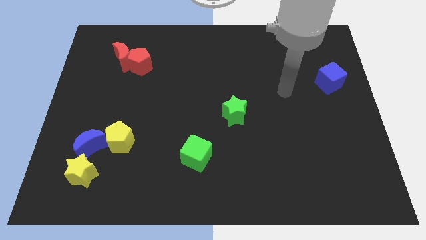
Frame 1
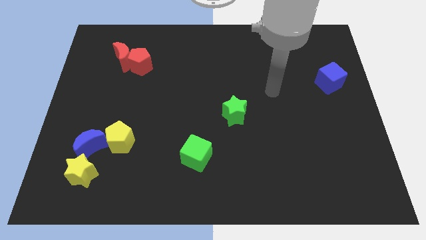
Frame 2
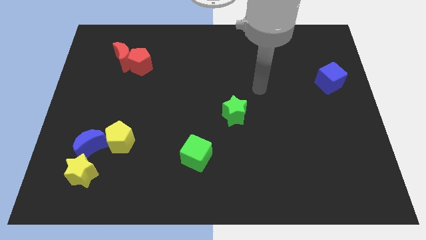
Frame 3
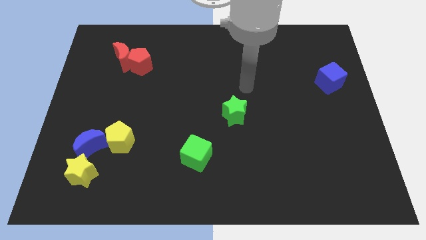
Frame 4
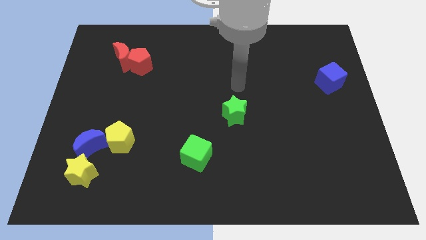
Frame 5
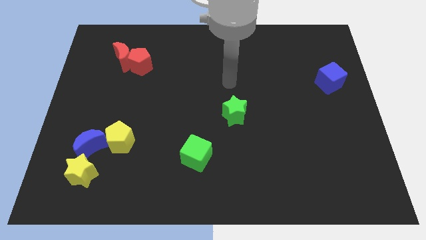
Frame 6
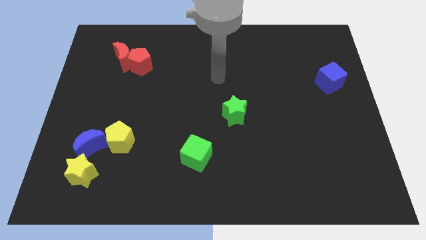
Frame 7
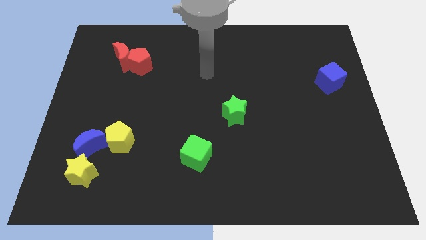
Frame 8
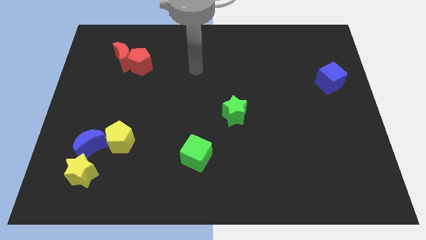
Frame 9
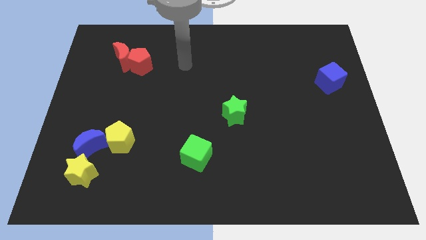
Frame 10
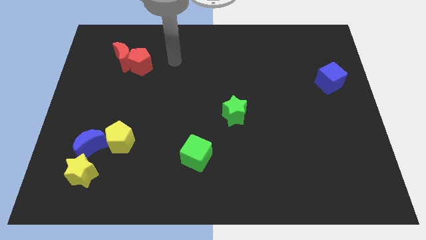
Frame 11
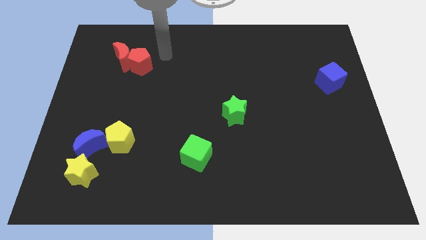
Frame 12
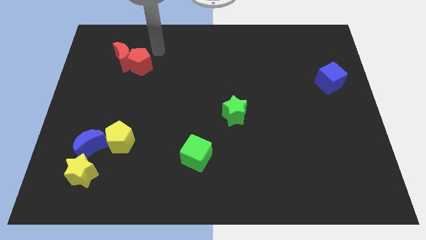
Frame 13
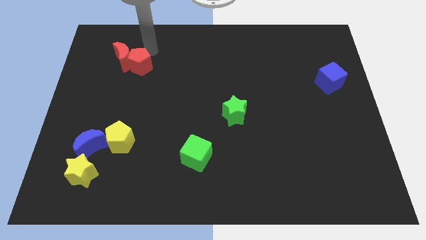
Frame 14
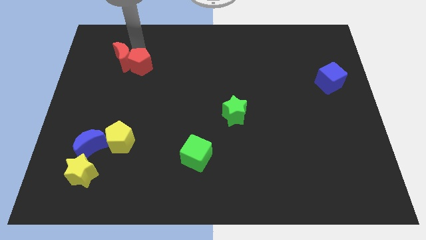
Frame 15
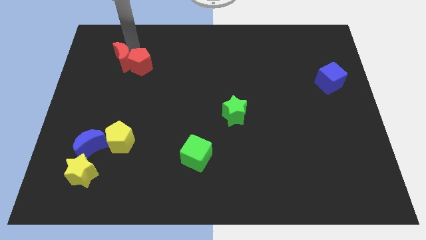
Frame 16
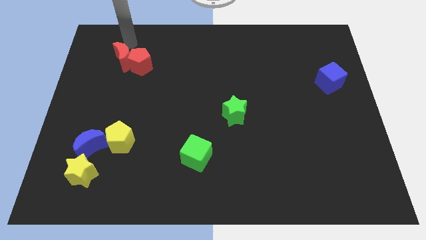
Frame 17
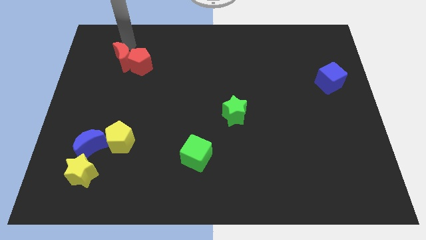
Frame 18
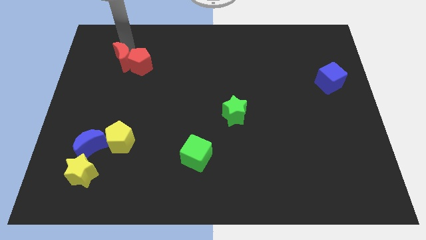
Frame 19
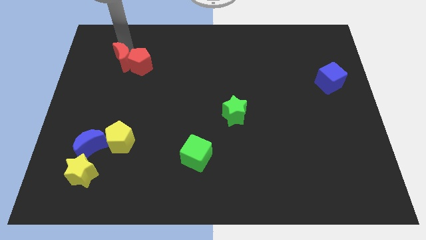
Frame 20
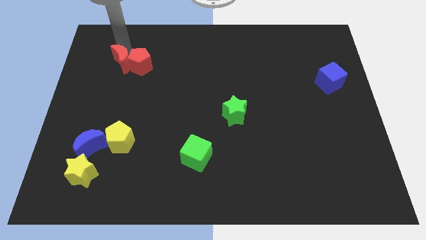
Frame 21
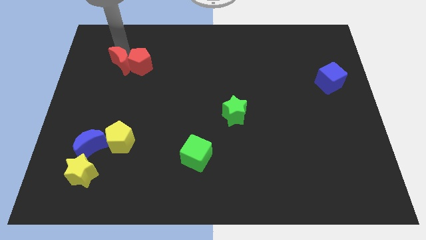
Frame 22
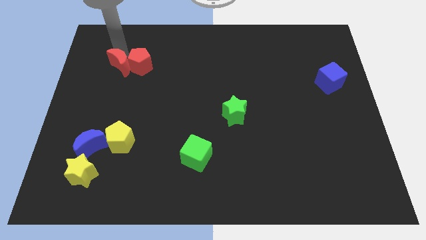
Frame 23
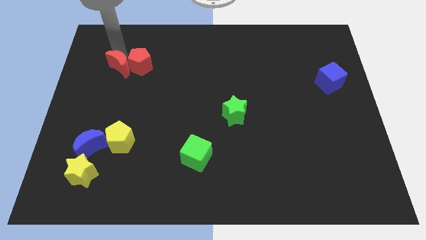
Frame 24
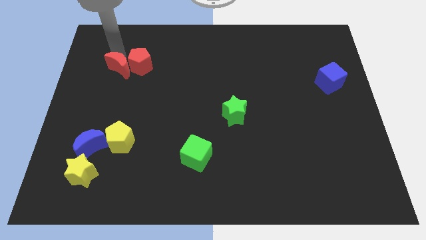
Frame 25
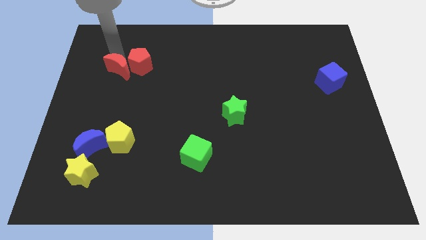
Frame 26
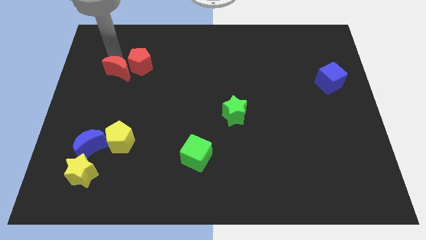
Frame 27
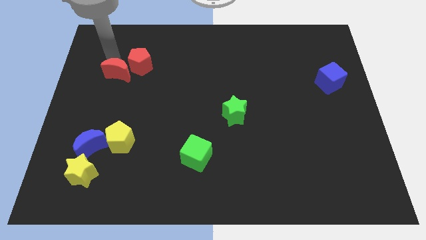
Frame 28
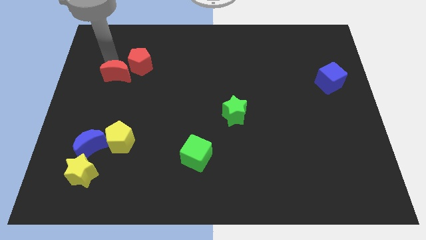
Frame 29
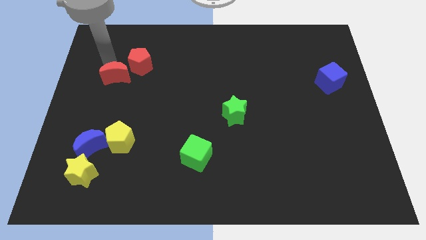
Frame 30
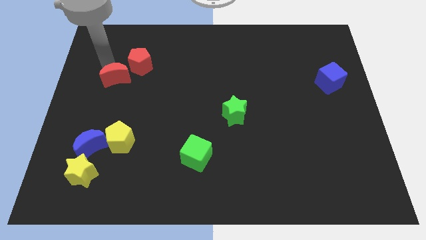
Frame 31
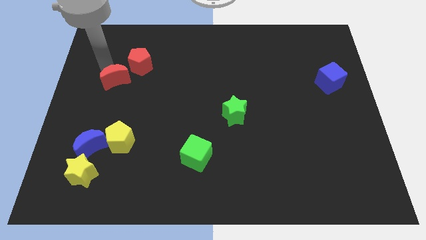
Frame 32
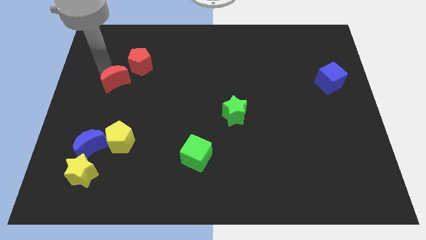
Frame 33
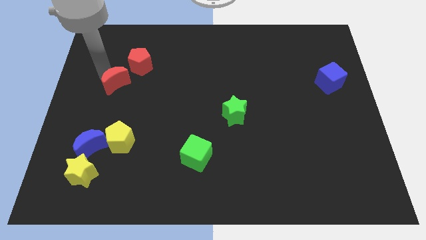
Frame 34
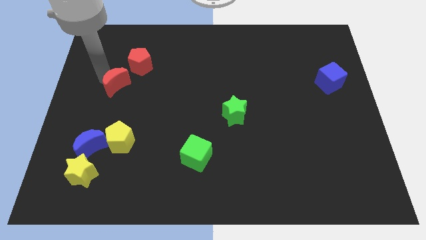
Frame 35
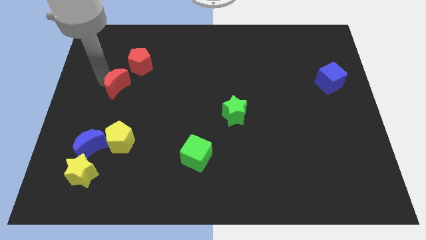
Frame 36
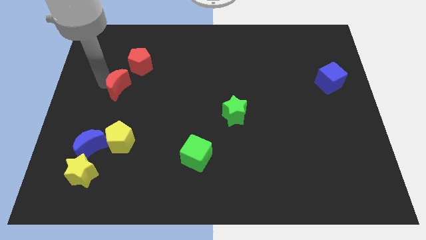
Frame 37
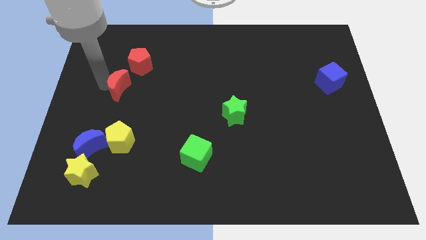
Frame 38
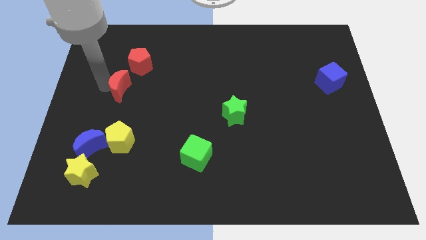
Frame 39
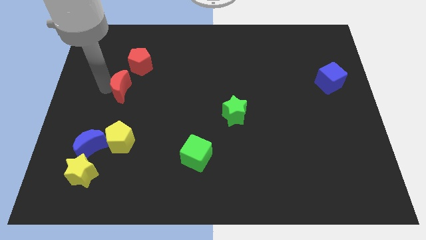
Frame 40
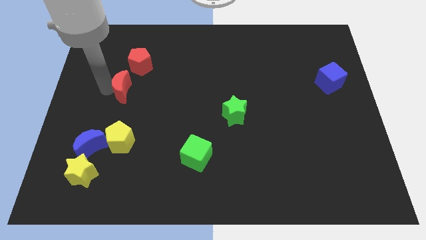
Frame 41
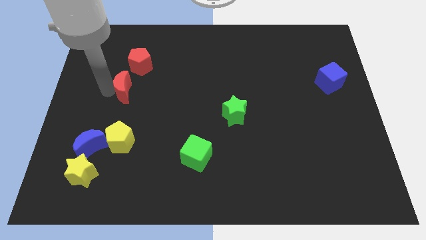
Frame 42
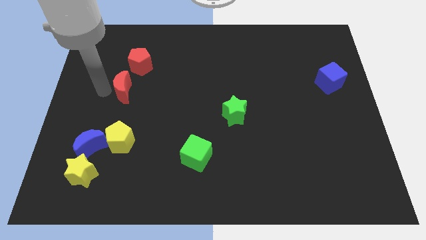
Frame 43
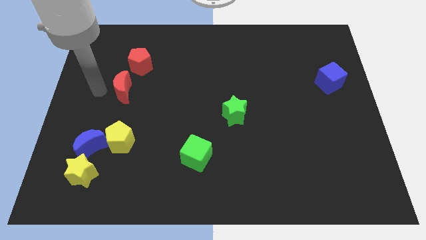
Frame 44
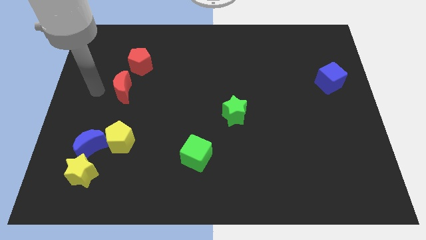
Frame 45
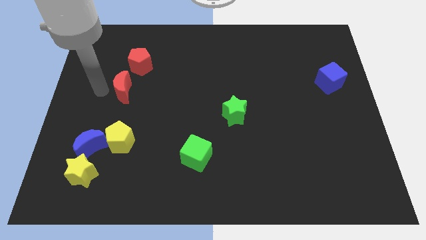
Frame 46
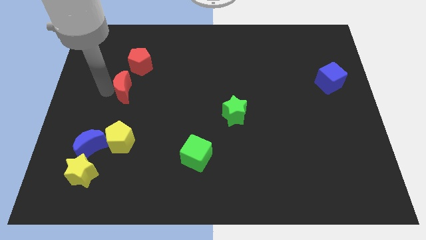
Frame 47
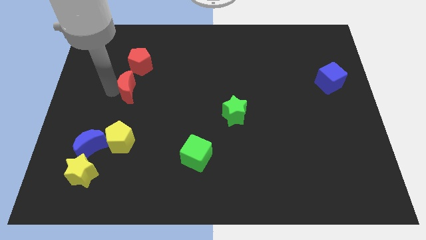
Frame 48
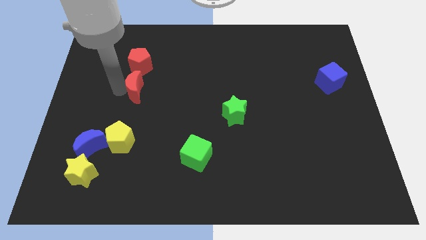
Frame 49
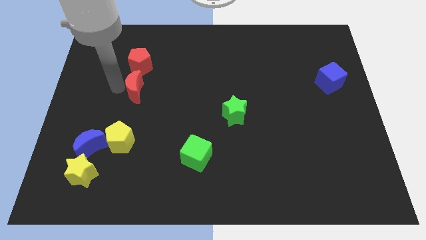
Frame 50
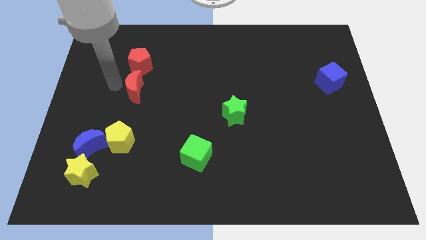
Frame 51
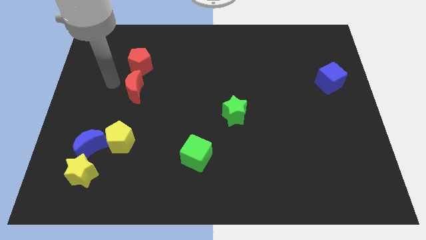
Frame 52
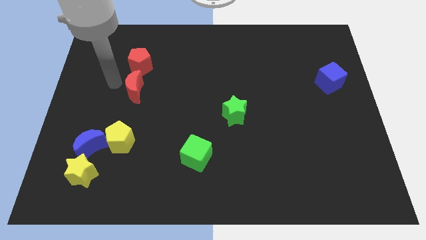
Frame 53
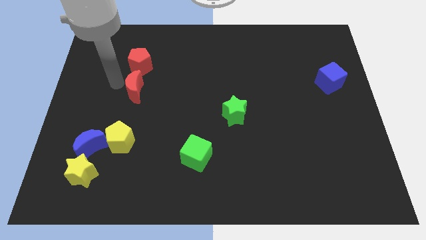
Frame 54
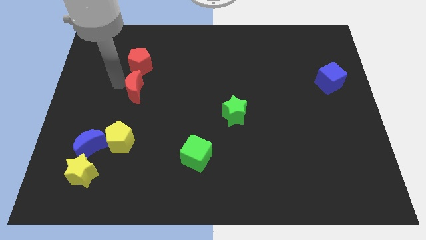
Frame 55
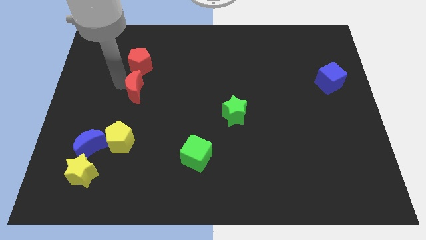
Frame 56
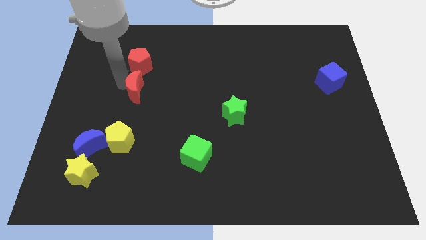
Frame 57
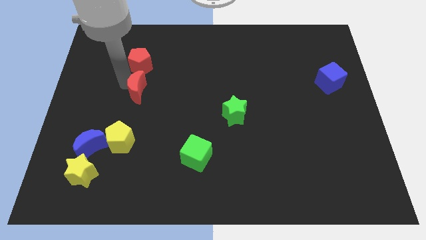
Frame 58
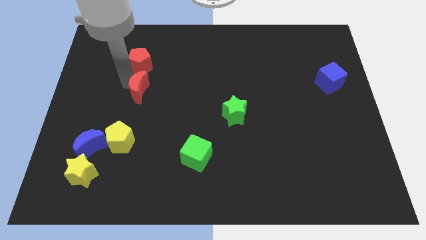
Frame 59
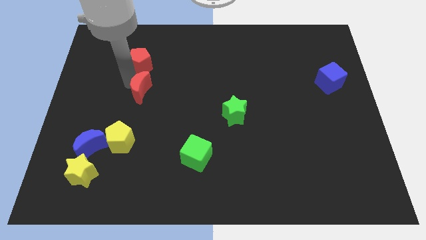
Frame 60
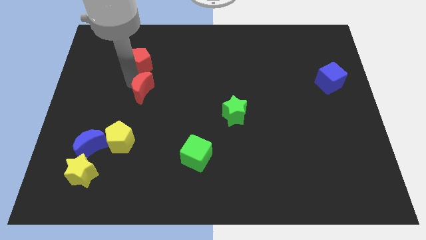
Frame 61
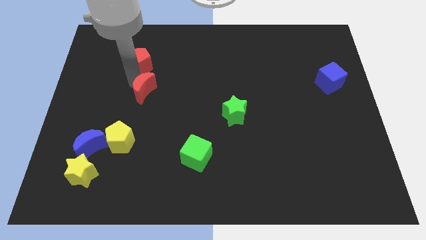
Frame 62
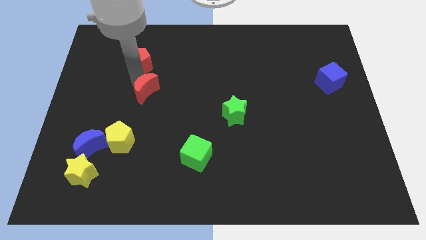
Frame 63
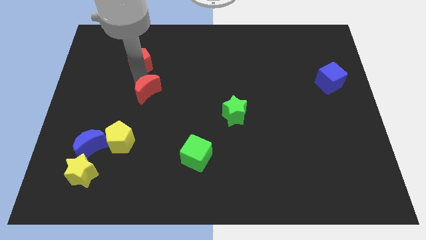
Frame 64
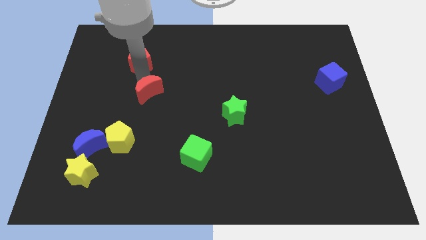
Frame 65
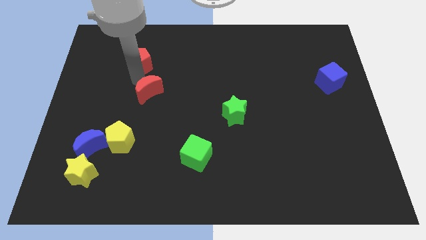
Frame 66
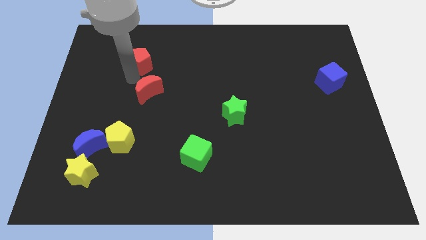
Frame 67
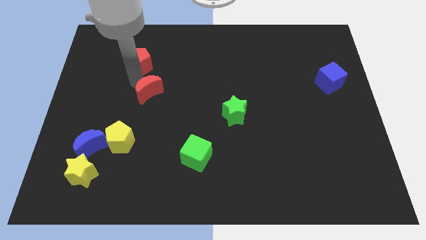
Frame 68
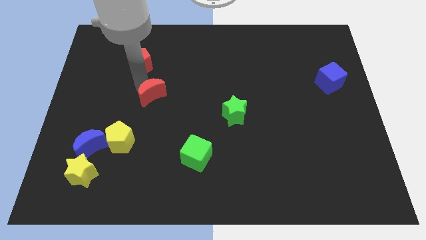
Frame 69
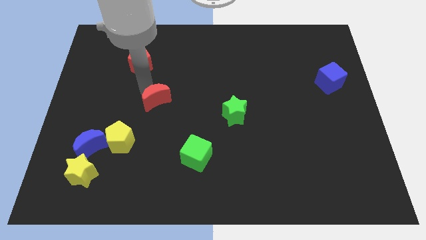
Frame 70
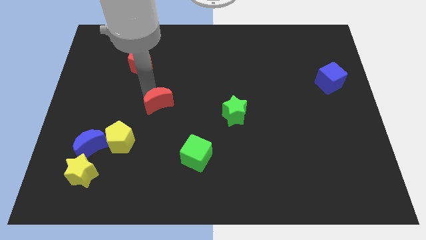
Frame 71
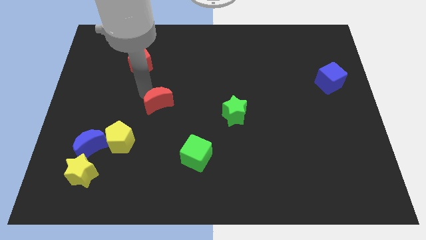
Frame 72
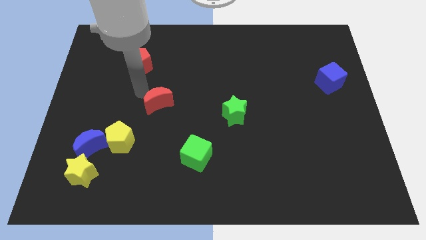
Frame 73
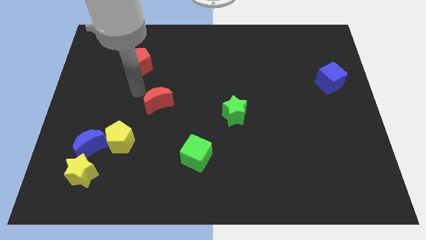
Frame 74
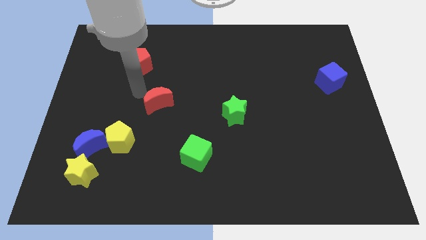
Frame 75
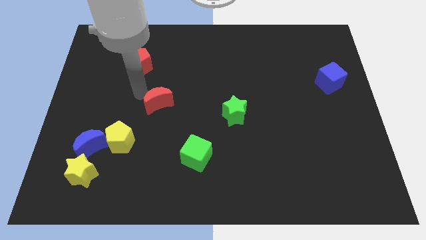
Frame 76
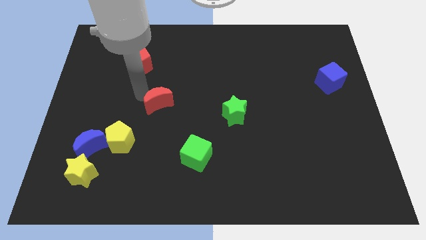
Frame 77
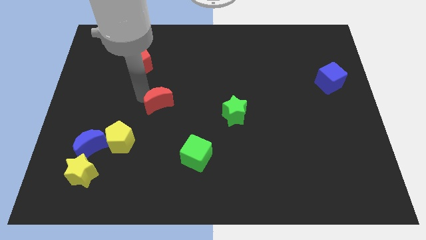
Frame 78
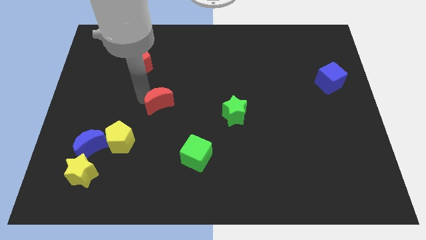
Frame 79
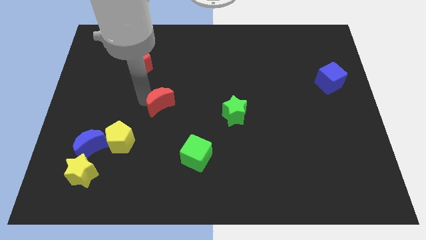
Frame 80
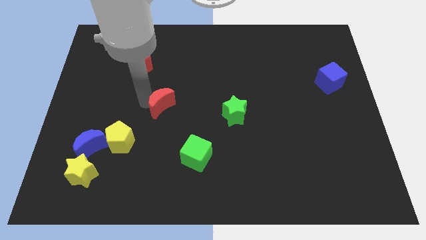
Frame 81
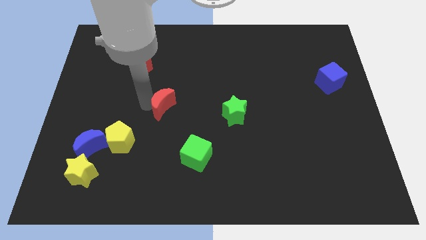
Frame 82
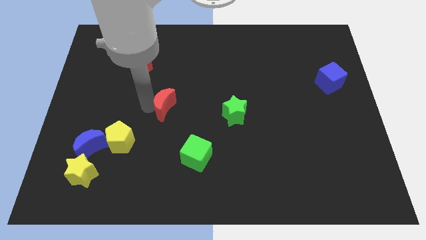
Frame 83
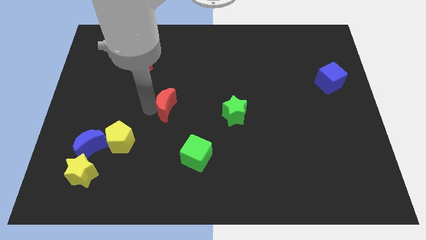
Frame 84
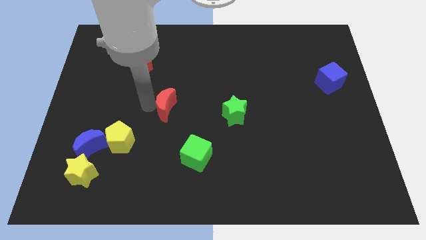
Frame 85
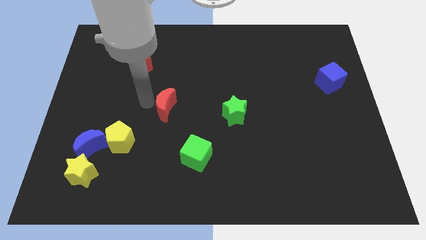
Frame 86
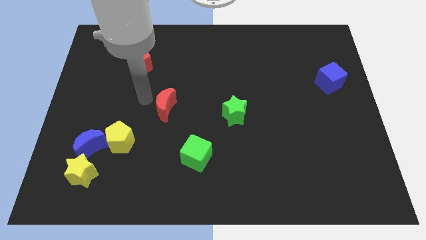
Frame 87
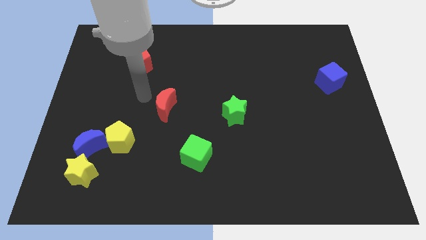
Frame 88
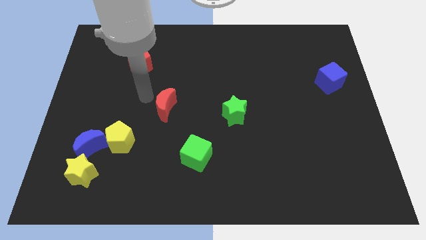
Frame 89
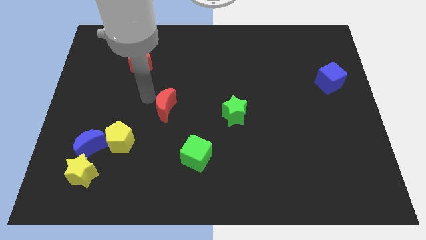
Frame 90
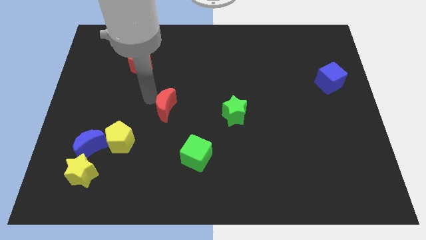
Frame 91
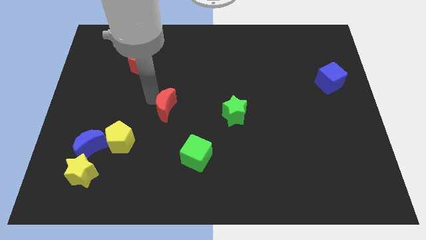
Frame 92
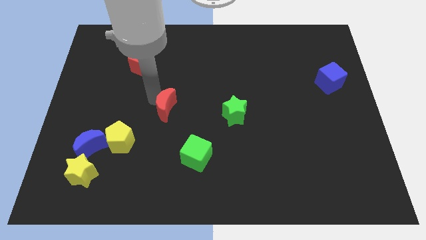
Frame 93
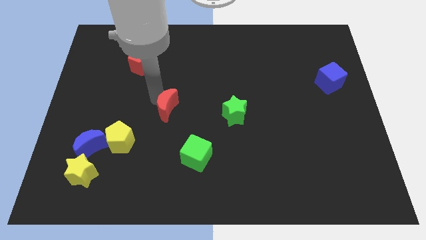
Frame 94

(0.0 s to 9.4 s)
slide the red moon downwards and to the right diagonally
